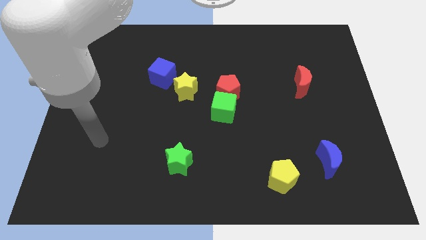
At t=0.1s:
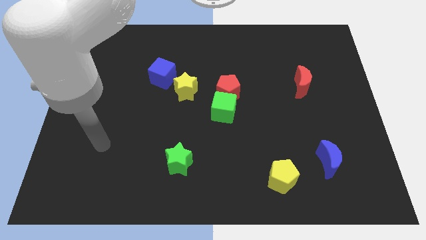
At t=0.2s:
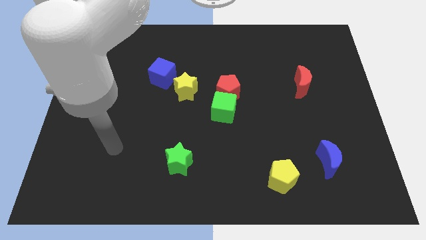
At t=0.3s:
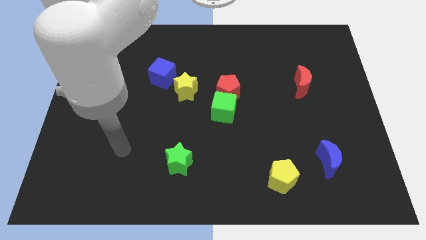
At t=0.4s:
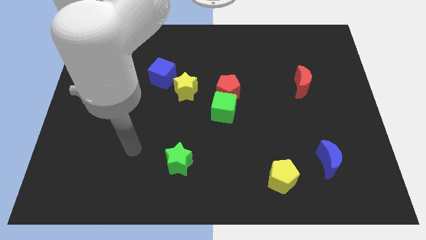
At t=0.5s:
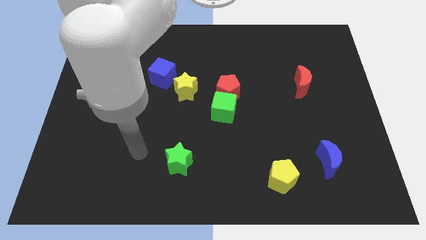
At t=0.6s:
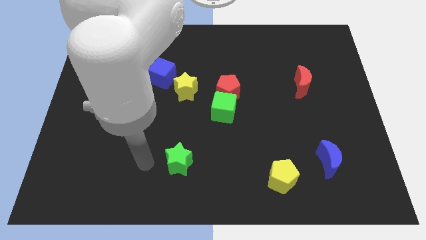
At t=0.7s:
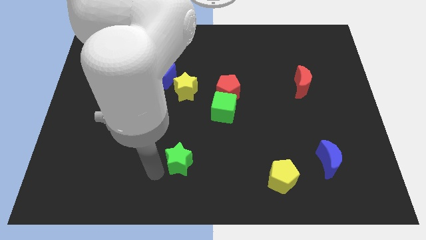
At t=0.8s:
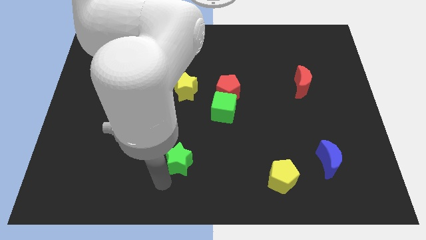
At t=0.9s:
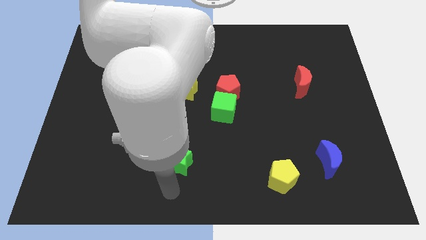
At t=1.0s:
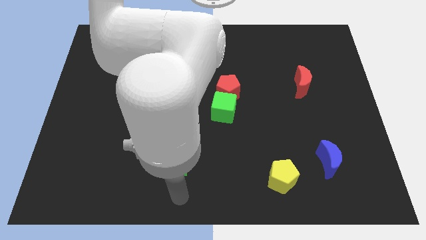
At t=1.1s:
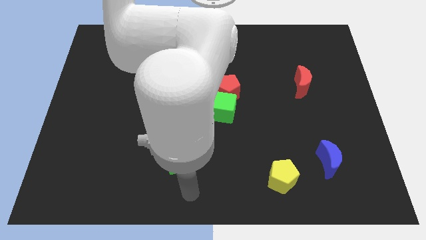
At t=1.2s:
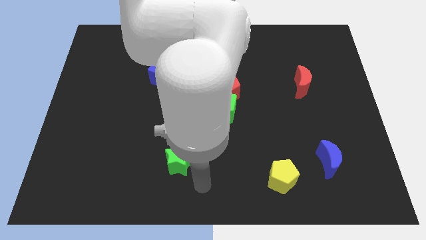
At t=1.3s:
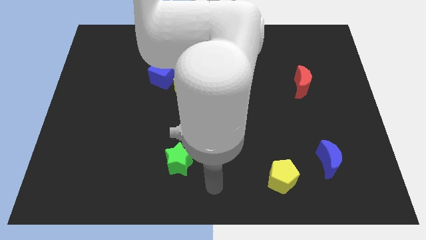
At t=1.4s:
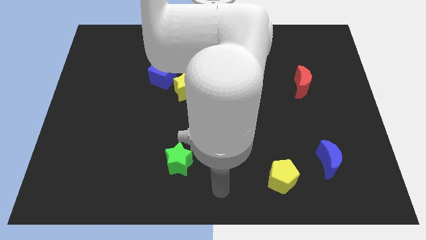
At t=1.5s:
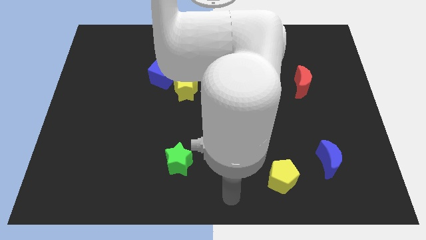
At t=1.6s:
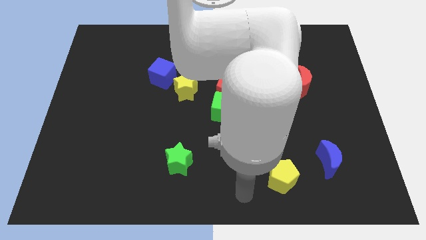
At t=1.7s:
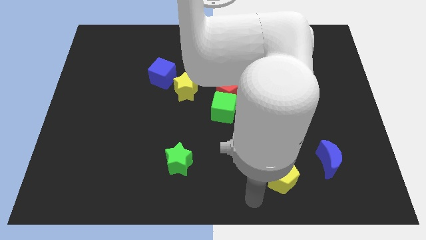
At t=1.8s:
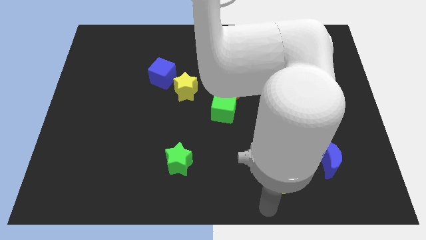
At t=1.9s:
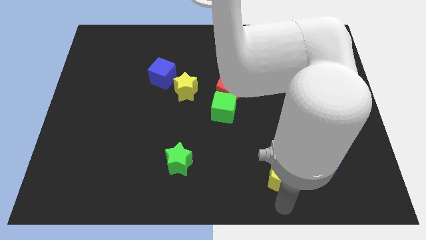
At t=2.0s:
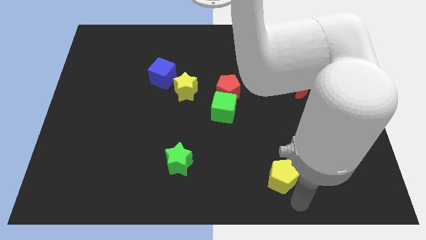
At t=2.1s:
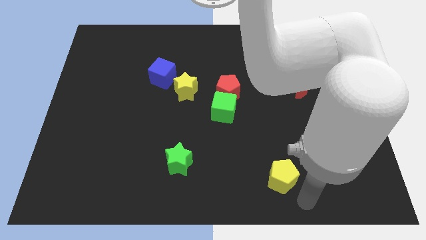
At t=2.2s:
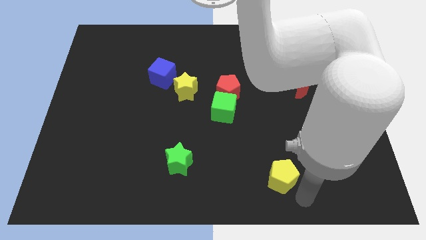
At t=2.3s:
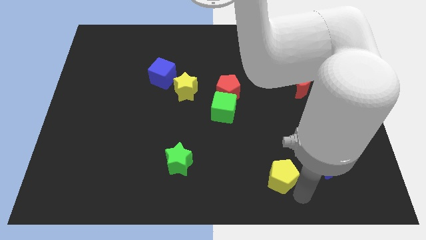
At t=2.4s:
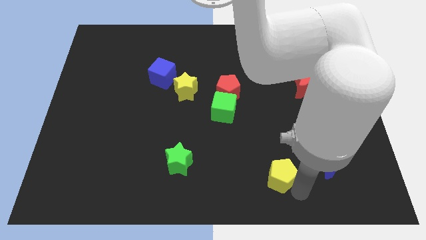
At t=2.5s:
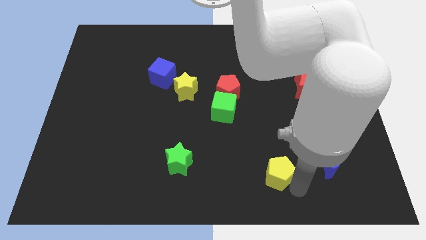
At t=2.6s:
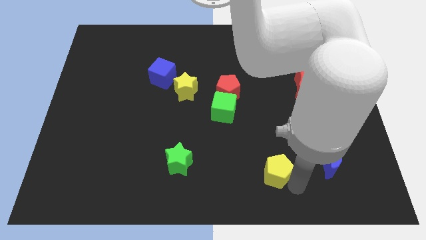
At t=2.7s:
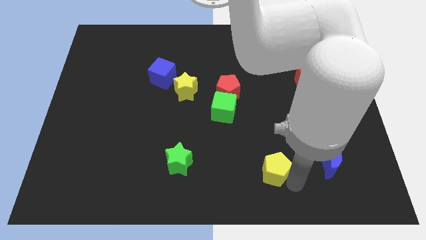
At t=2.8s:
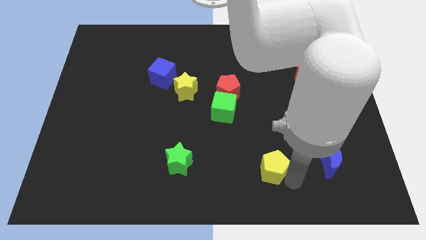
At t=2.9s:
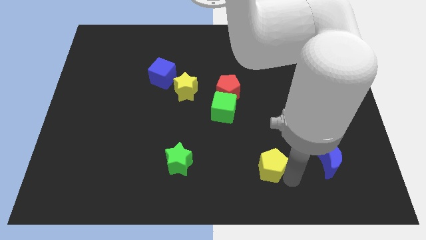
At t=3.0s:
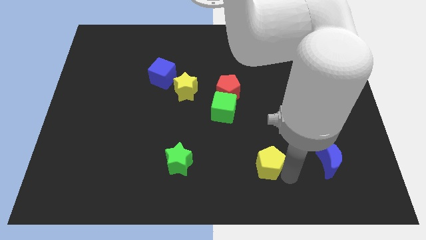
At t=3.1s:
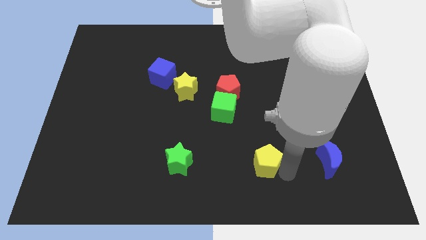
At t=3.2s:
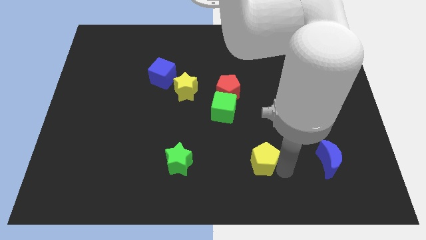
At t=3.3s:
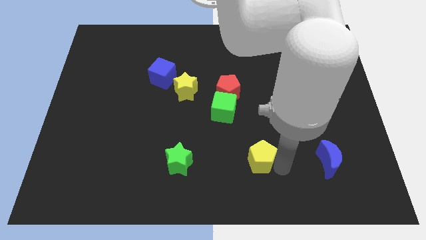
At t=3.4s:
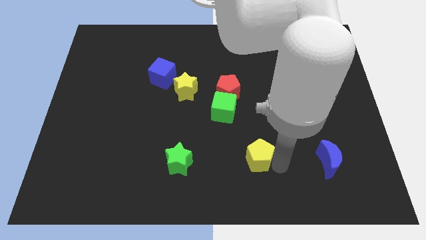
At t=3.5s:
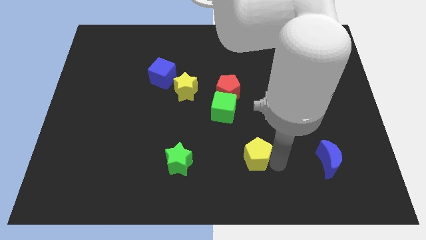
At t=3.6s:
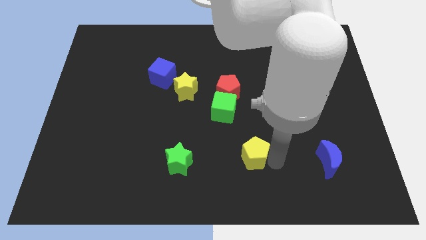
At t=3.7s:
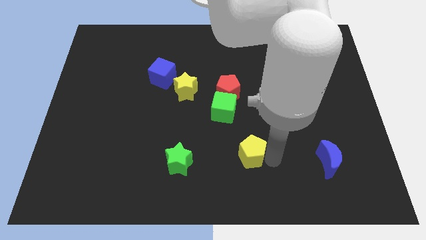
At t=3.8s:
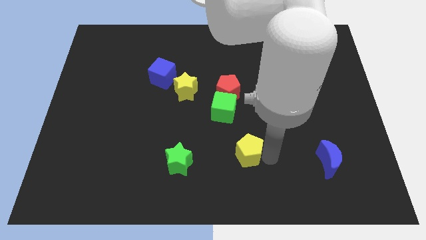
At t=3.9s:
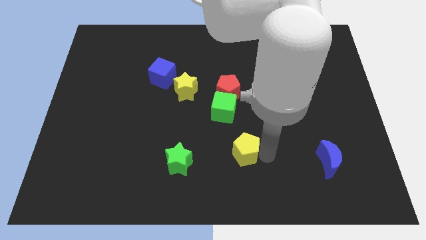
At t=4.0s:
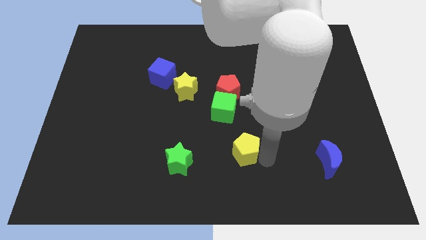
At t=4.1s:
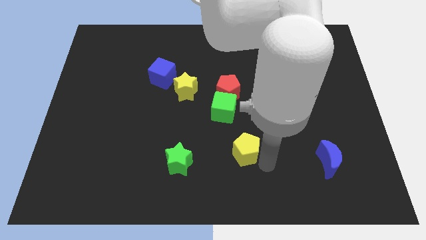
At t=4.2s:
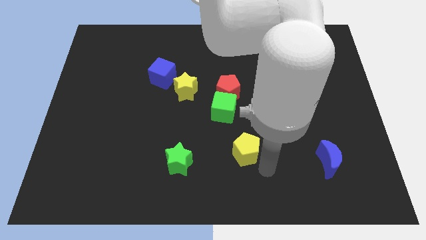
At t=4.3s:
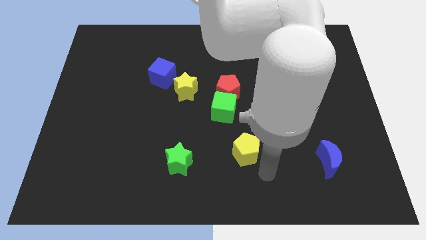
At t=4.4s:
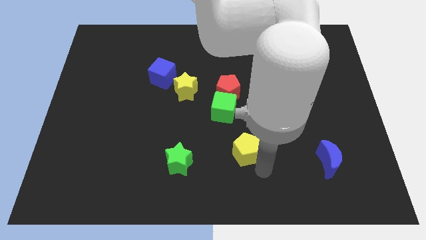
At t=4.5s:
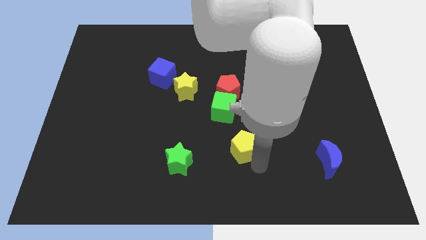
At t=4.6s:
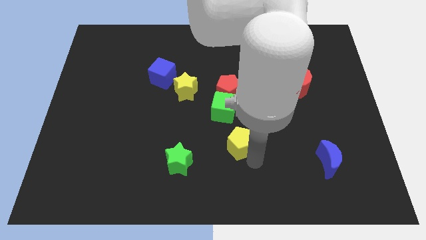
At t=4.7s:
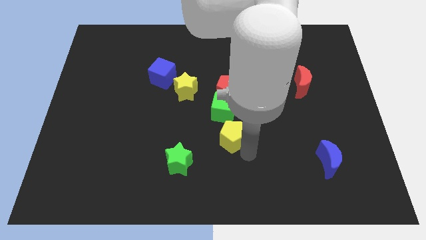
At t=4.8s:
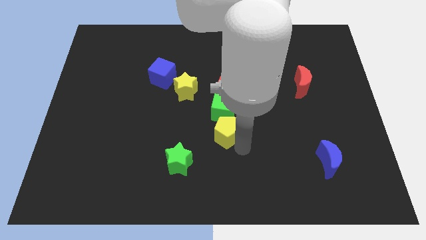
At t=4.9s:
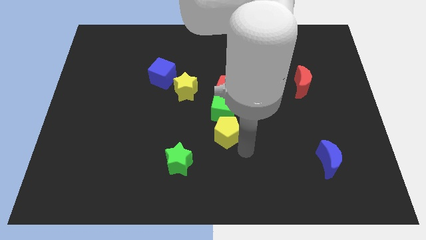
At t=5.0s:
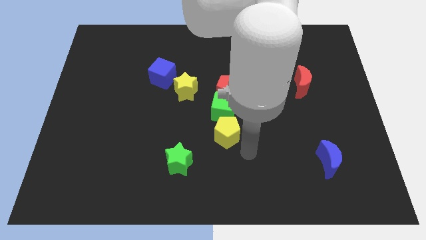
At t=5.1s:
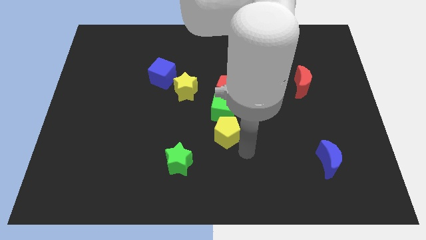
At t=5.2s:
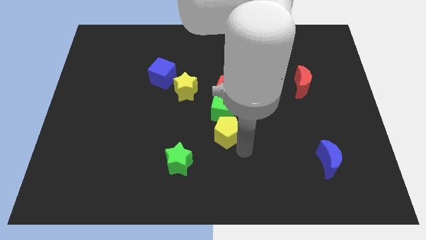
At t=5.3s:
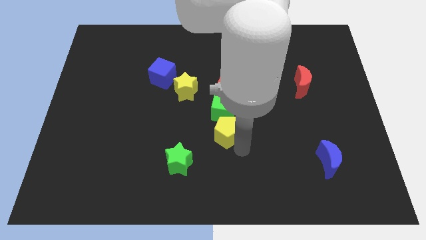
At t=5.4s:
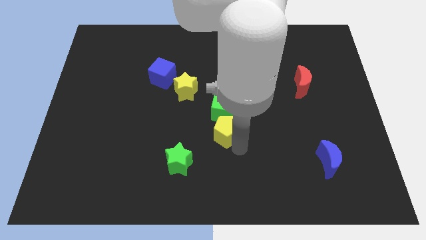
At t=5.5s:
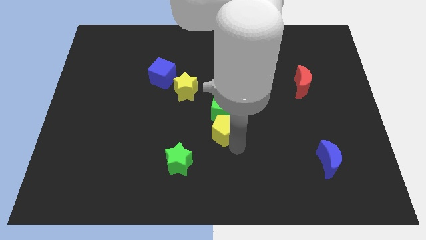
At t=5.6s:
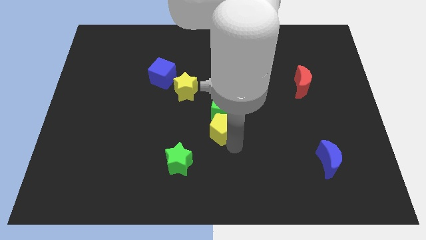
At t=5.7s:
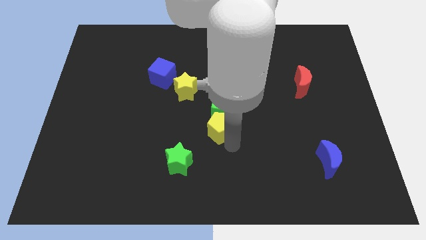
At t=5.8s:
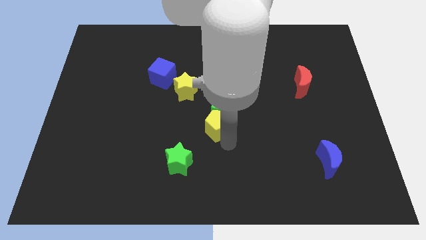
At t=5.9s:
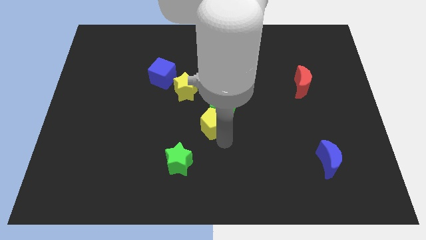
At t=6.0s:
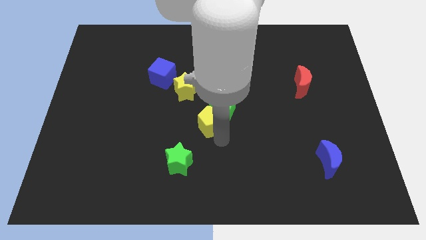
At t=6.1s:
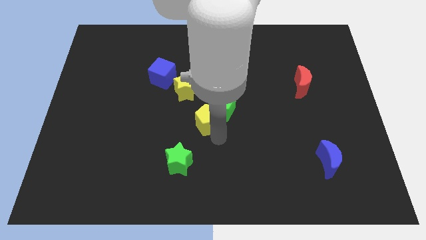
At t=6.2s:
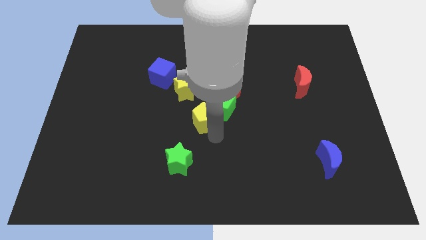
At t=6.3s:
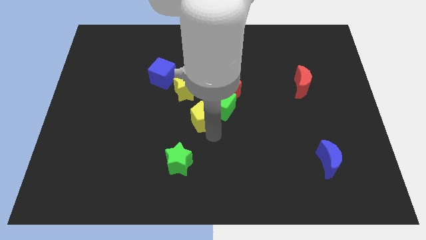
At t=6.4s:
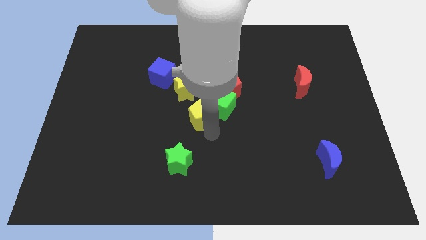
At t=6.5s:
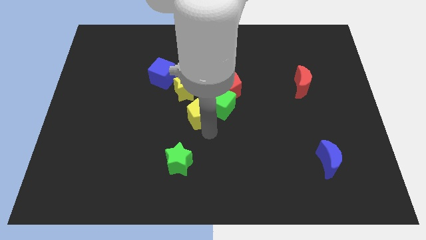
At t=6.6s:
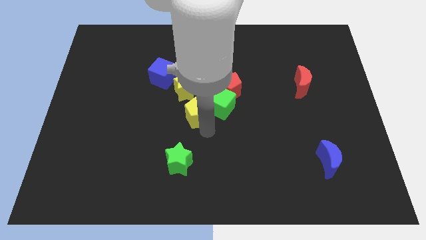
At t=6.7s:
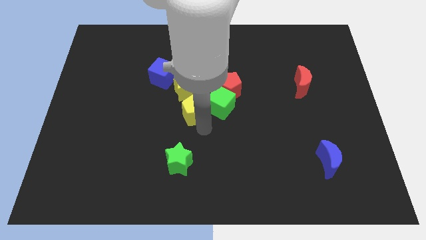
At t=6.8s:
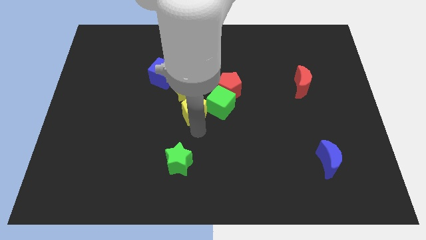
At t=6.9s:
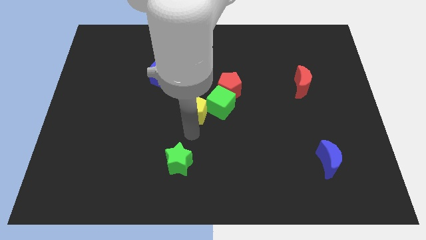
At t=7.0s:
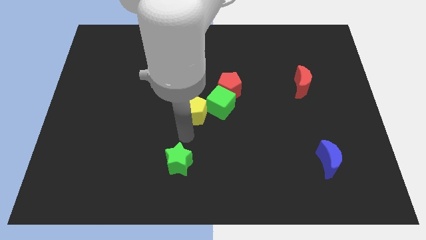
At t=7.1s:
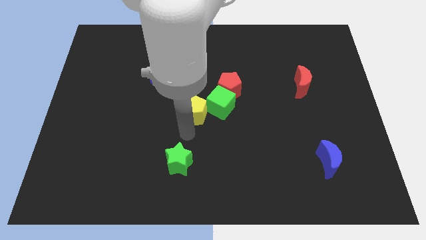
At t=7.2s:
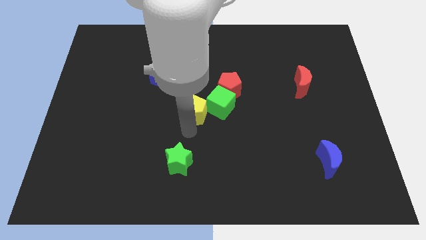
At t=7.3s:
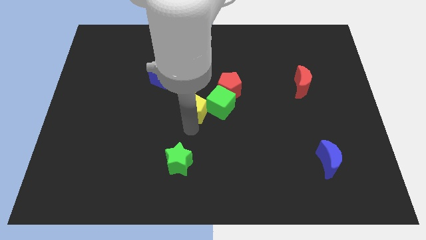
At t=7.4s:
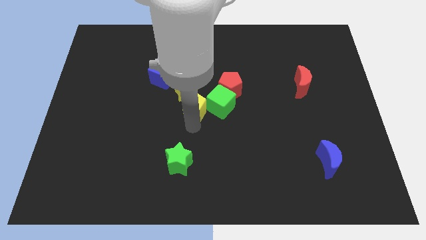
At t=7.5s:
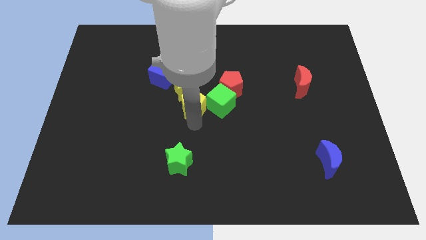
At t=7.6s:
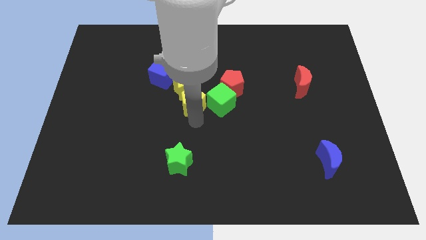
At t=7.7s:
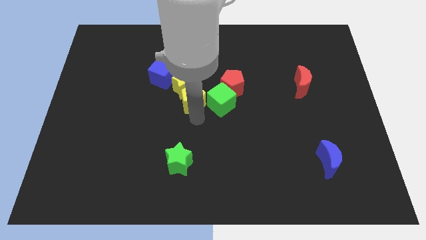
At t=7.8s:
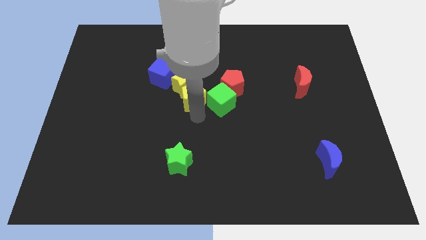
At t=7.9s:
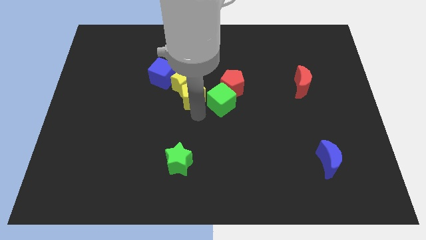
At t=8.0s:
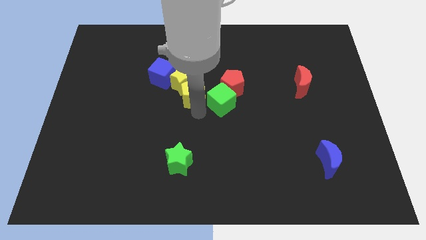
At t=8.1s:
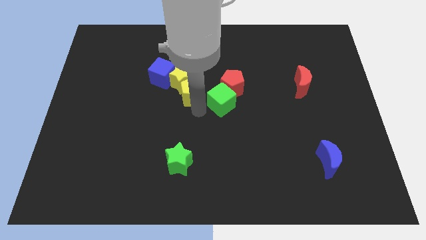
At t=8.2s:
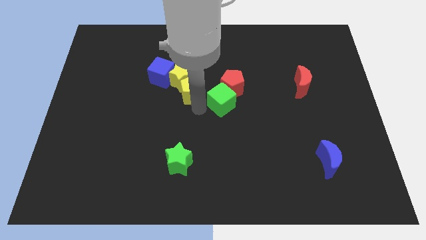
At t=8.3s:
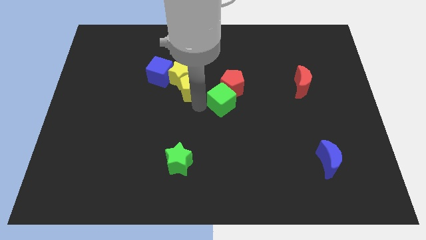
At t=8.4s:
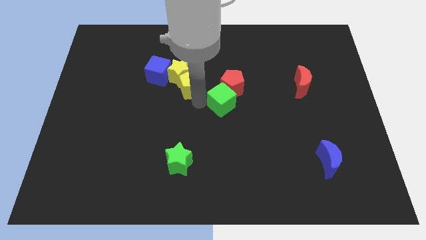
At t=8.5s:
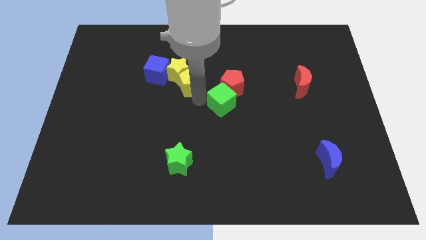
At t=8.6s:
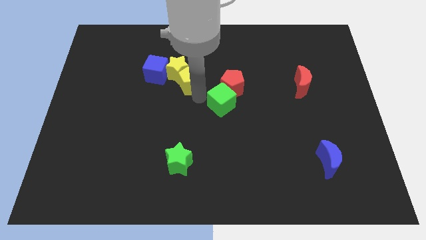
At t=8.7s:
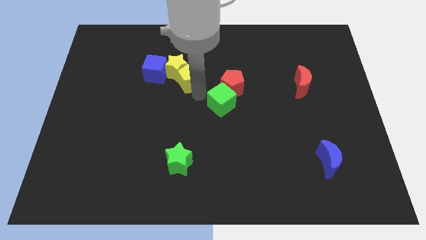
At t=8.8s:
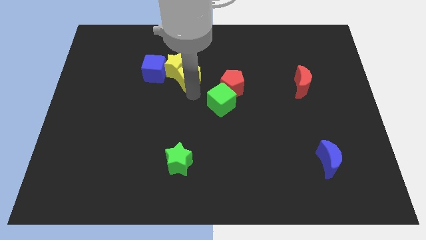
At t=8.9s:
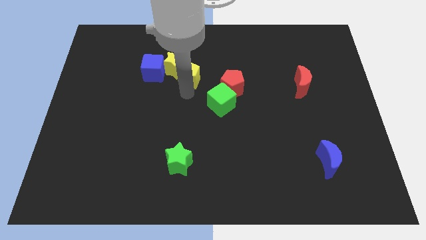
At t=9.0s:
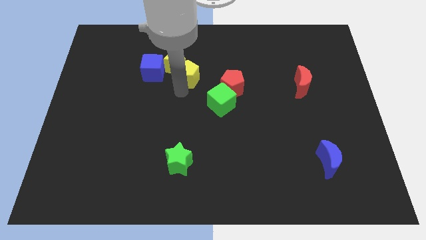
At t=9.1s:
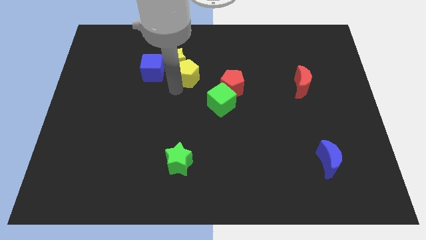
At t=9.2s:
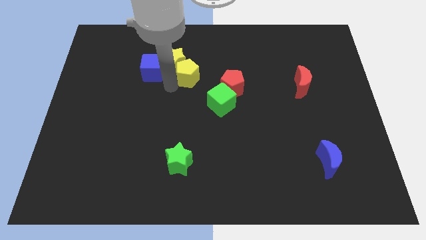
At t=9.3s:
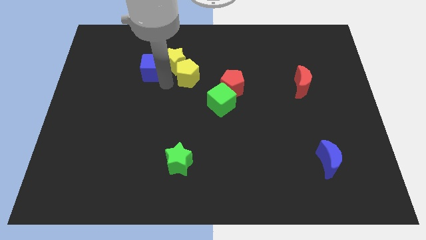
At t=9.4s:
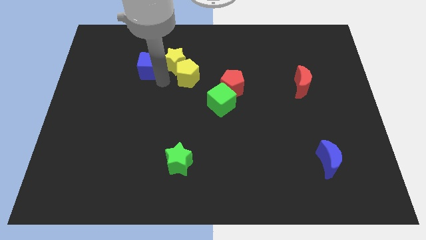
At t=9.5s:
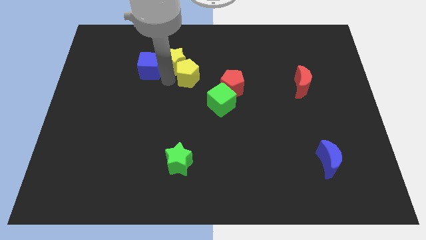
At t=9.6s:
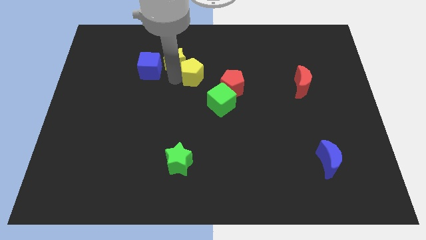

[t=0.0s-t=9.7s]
slide the yellow pentagon to the top left side of the red pentagon
